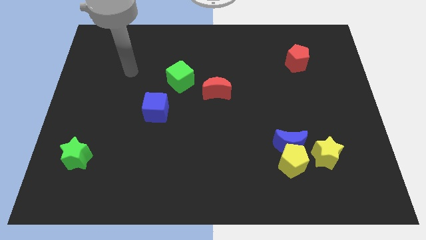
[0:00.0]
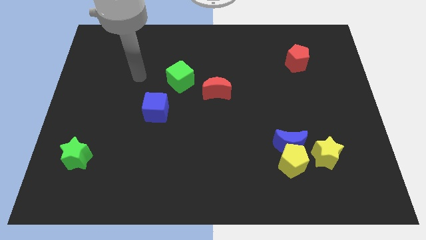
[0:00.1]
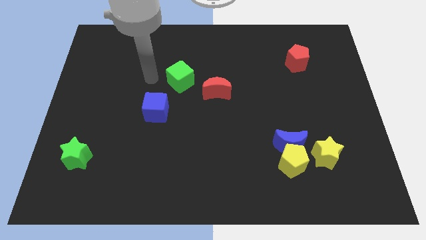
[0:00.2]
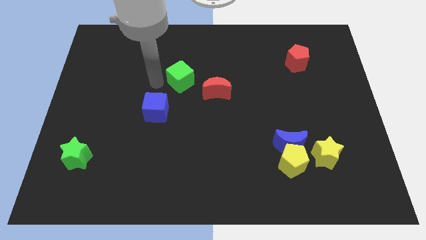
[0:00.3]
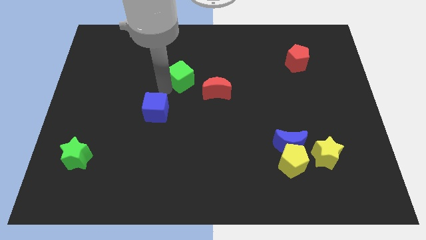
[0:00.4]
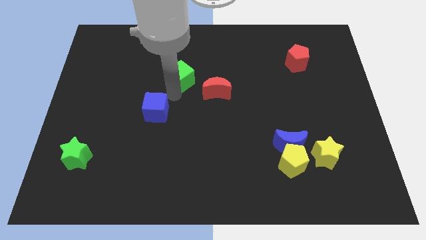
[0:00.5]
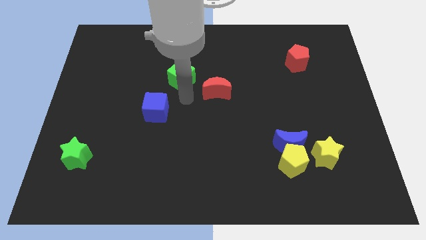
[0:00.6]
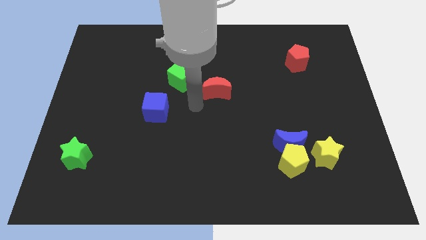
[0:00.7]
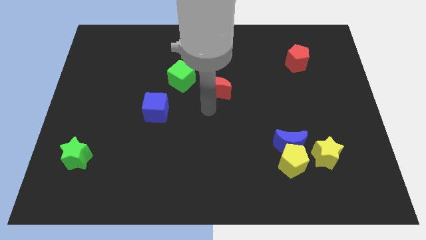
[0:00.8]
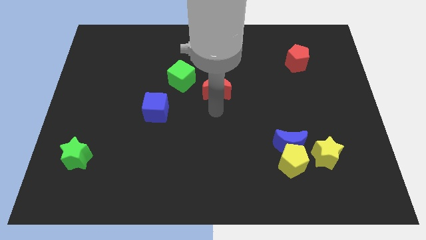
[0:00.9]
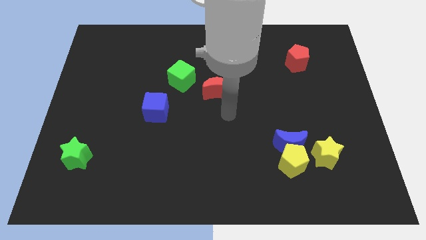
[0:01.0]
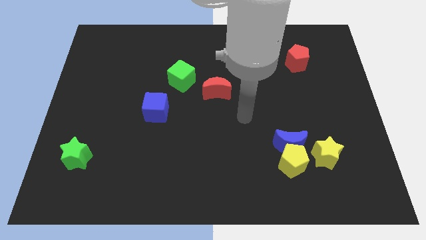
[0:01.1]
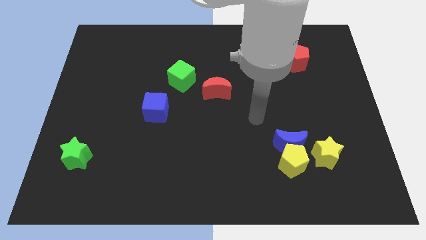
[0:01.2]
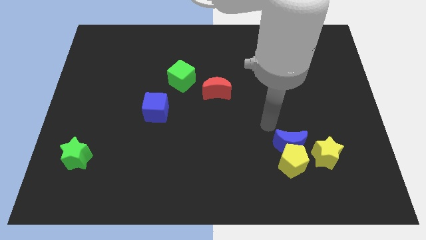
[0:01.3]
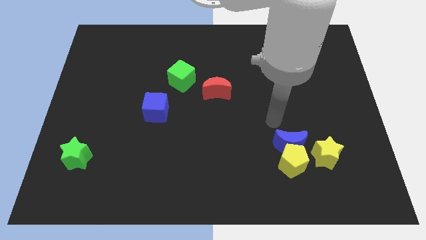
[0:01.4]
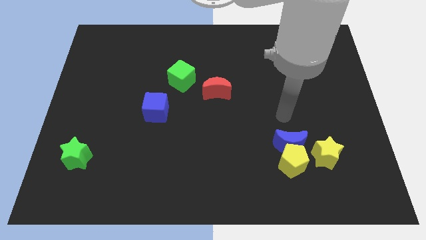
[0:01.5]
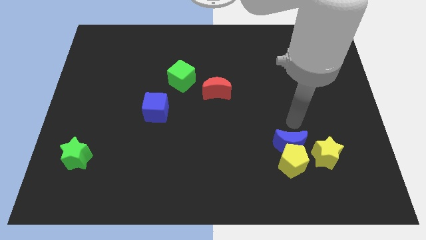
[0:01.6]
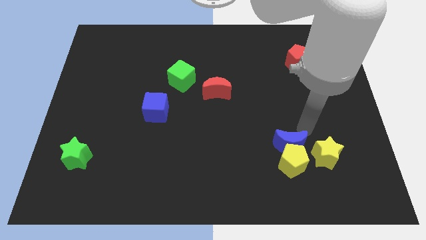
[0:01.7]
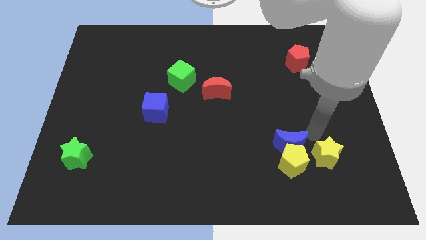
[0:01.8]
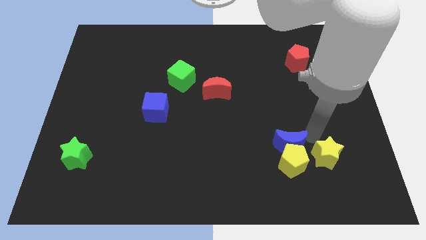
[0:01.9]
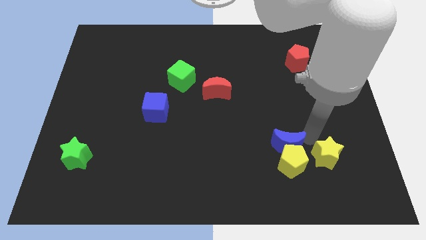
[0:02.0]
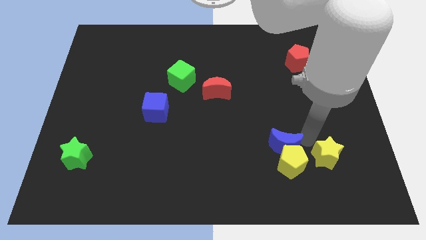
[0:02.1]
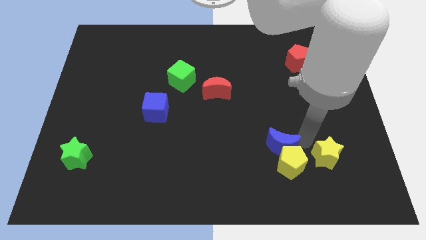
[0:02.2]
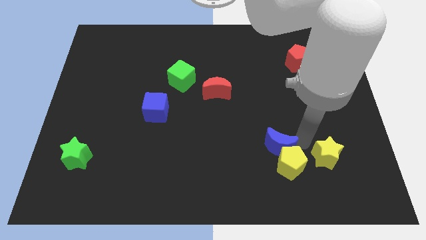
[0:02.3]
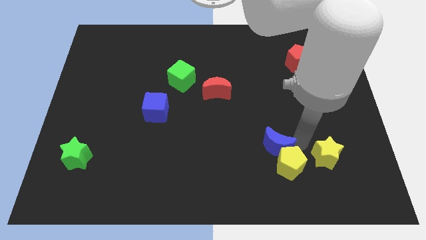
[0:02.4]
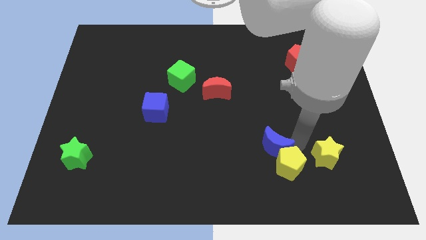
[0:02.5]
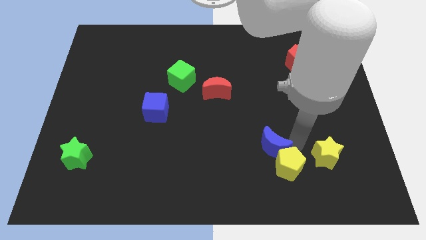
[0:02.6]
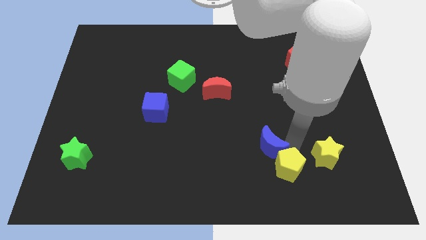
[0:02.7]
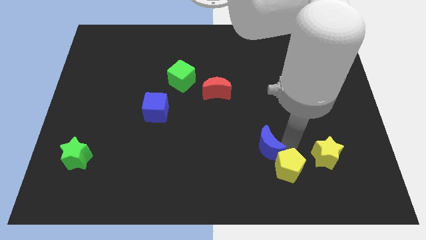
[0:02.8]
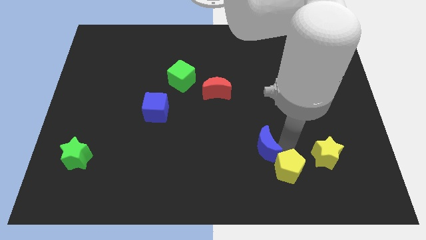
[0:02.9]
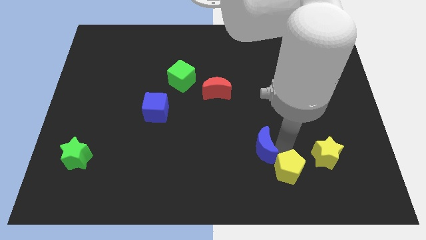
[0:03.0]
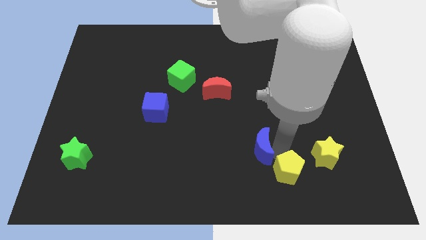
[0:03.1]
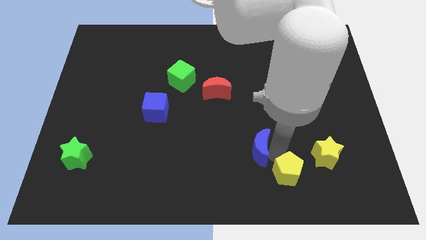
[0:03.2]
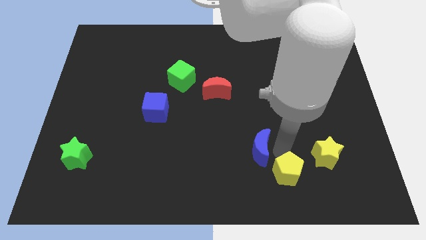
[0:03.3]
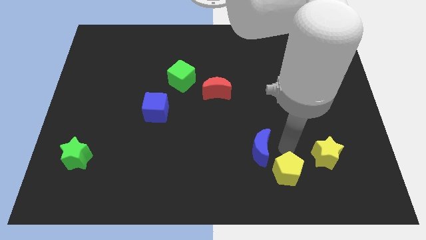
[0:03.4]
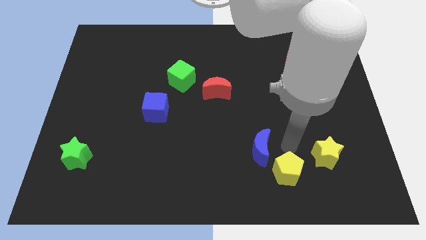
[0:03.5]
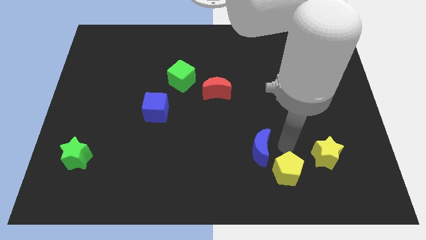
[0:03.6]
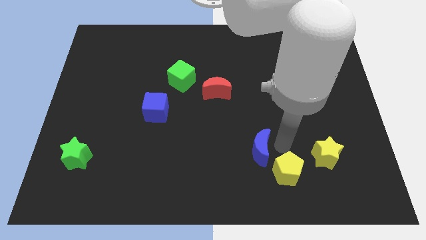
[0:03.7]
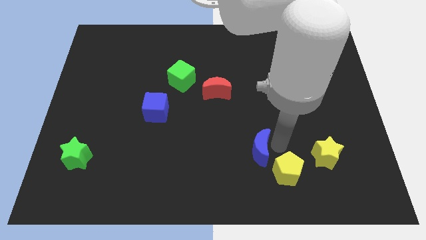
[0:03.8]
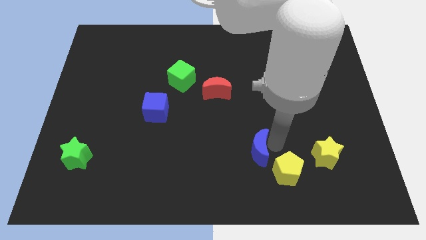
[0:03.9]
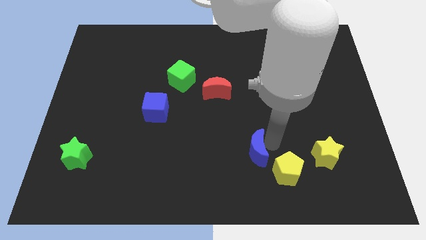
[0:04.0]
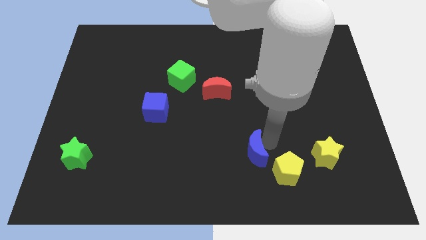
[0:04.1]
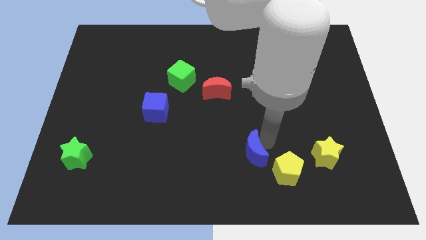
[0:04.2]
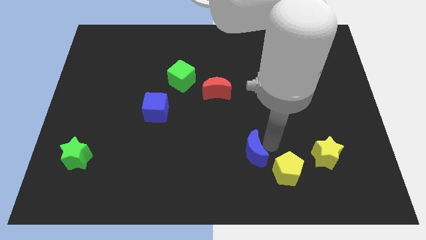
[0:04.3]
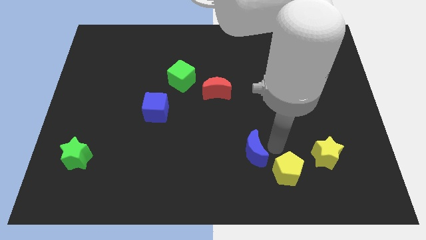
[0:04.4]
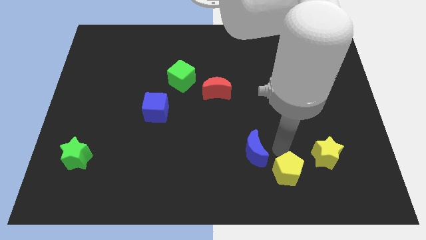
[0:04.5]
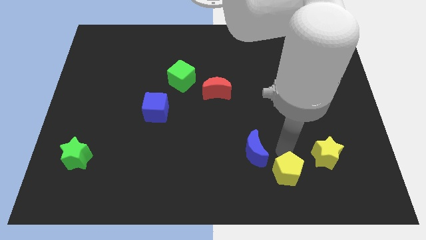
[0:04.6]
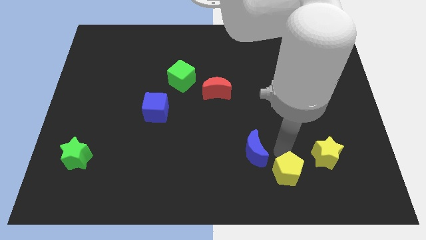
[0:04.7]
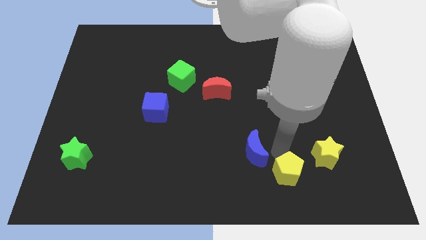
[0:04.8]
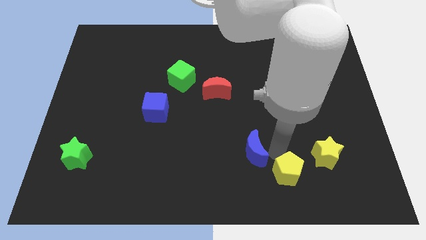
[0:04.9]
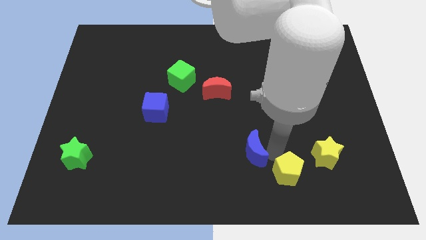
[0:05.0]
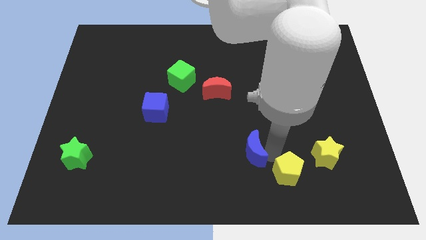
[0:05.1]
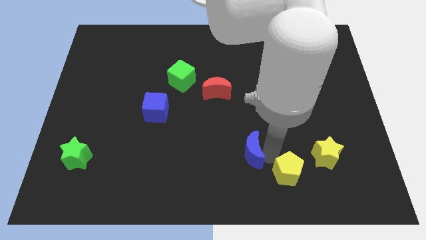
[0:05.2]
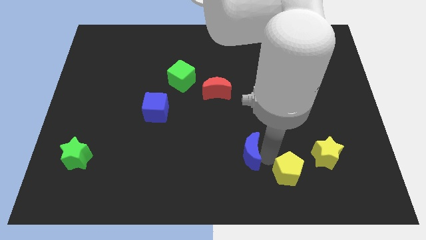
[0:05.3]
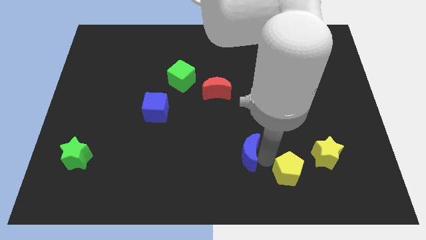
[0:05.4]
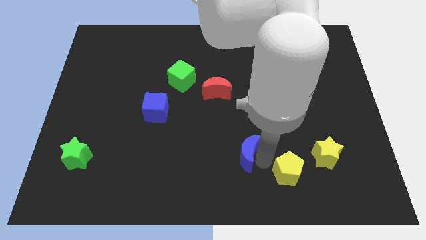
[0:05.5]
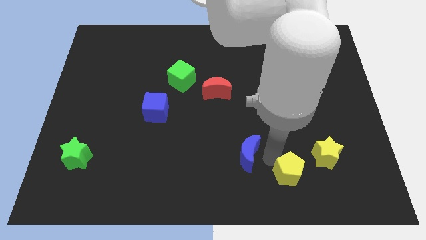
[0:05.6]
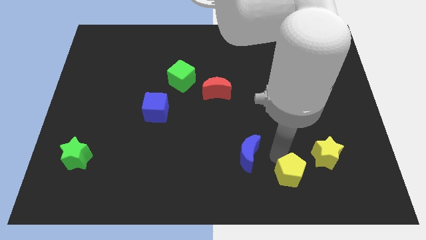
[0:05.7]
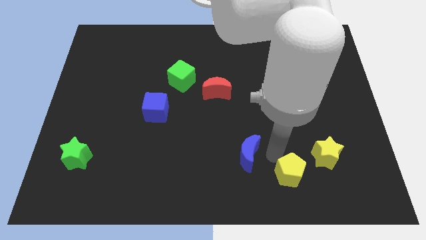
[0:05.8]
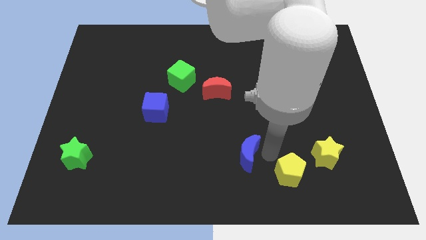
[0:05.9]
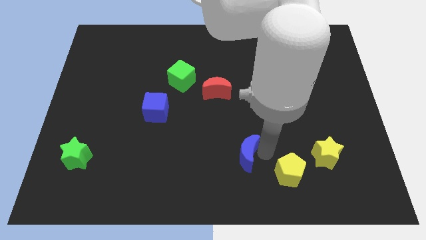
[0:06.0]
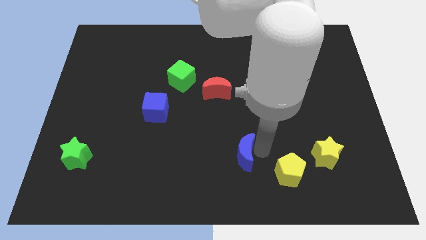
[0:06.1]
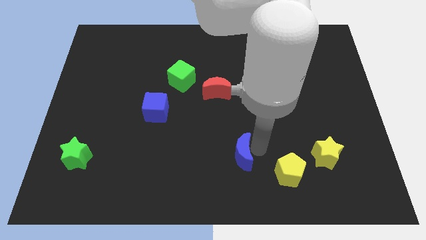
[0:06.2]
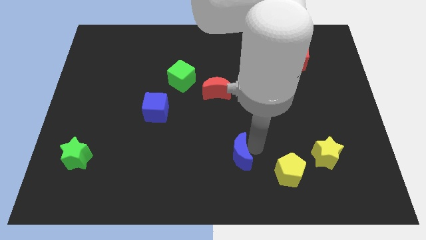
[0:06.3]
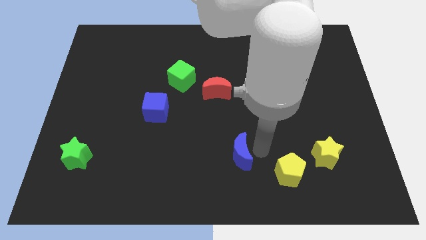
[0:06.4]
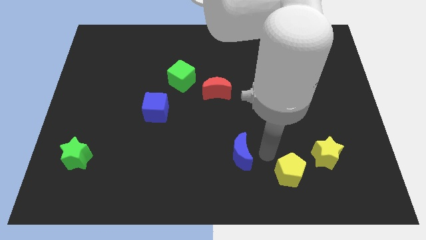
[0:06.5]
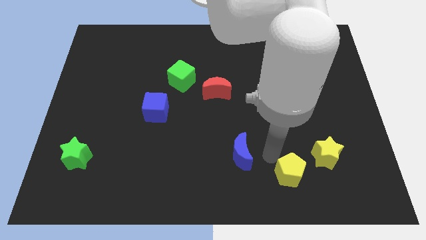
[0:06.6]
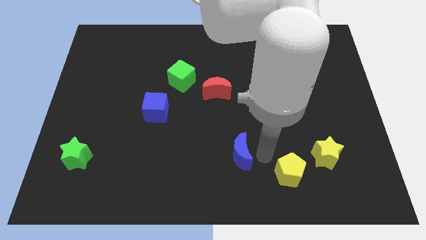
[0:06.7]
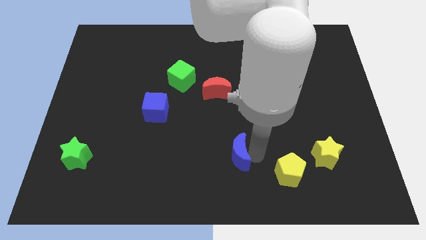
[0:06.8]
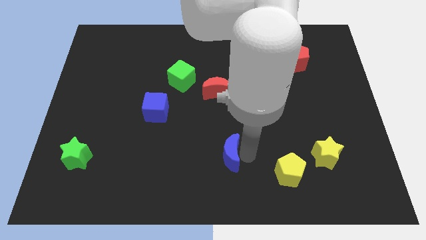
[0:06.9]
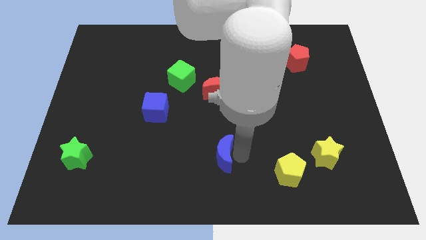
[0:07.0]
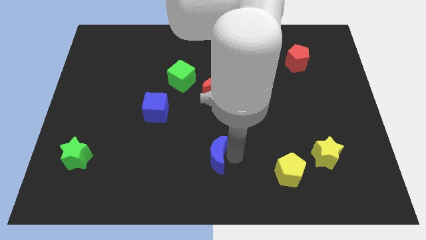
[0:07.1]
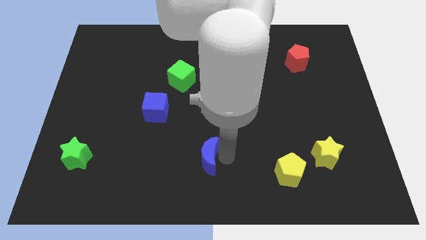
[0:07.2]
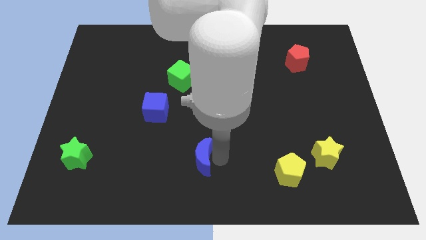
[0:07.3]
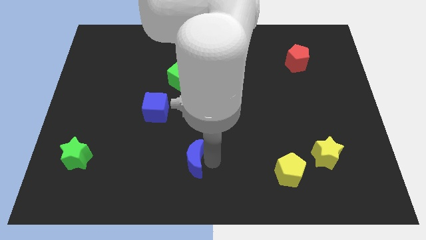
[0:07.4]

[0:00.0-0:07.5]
push the blue moon left

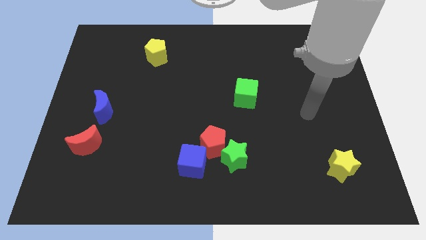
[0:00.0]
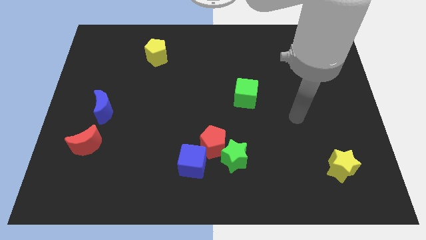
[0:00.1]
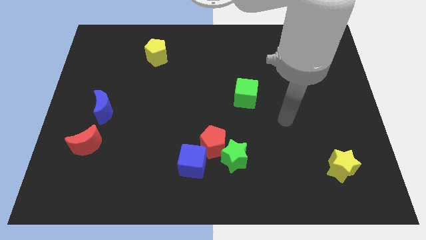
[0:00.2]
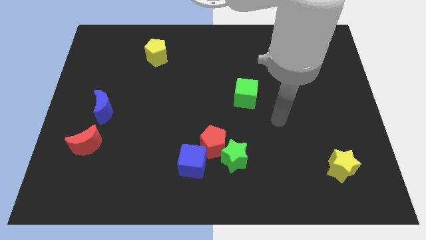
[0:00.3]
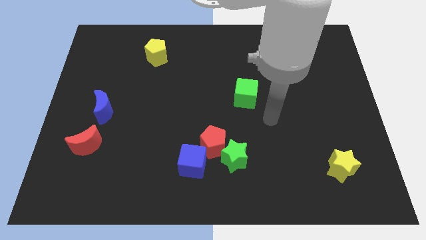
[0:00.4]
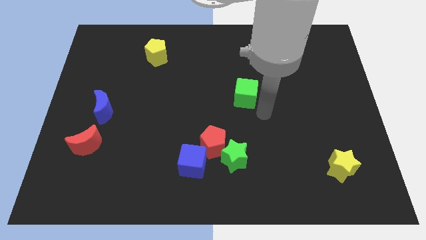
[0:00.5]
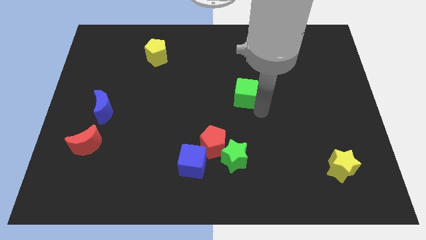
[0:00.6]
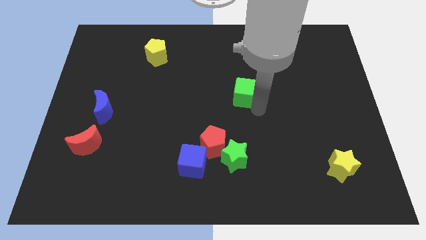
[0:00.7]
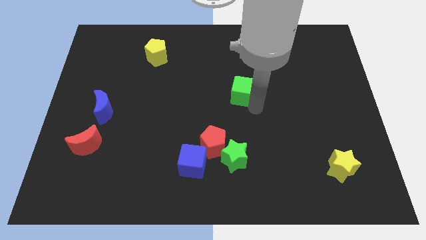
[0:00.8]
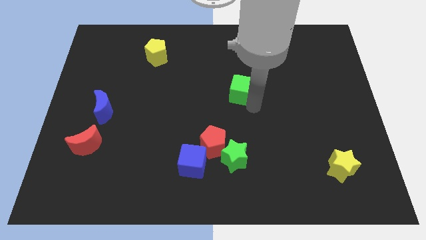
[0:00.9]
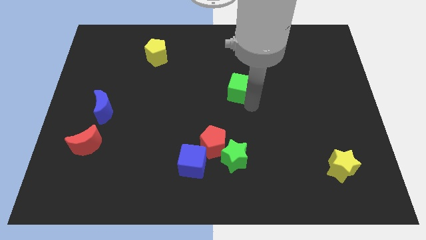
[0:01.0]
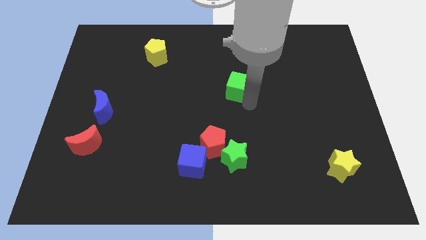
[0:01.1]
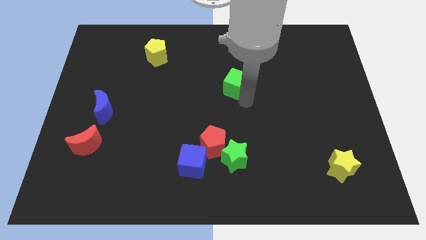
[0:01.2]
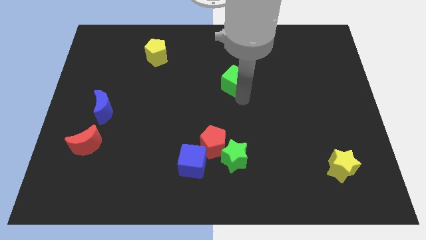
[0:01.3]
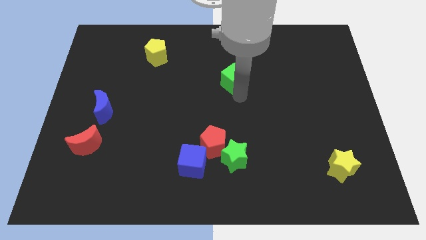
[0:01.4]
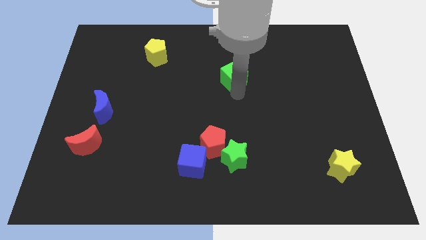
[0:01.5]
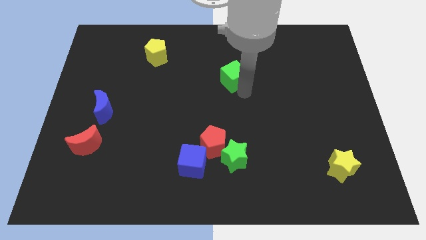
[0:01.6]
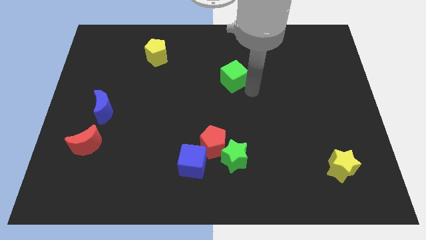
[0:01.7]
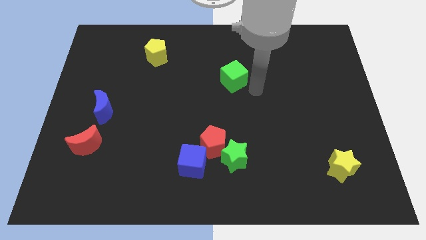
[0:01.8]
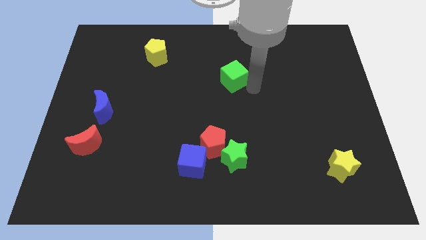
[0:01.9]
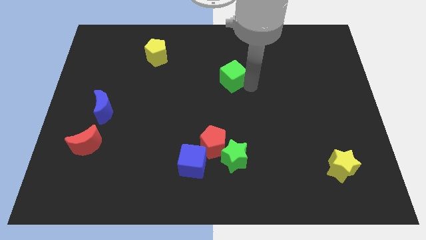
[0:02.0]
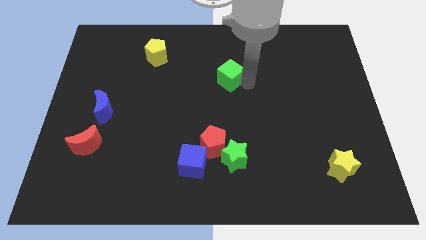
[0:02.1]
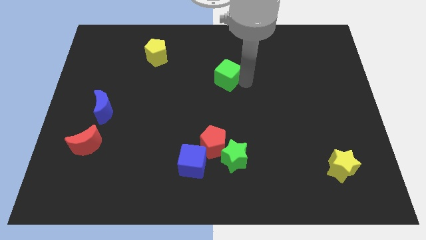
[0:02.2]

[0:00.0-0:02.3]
move the green cube a little bit upwards and to the left diagonally
